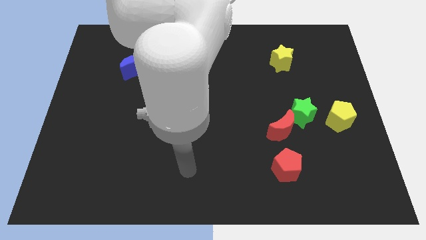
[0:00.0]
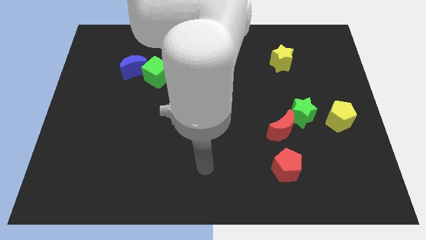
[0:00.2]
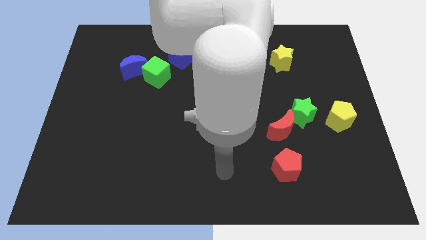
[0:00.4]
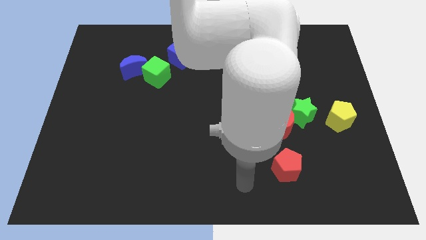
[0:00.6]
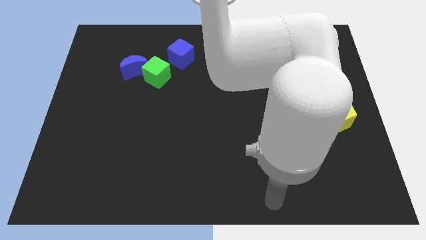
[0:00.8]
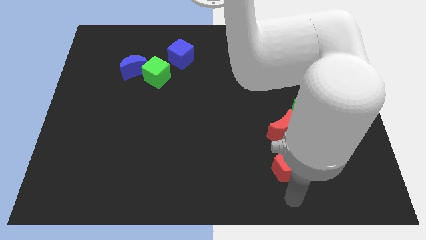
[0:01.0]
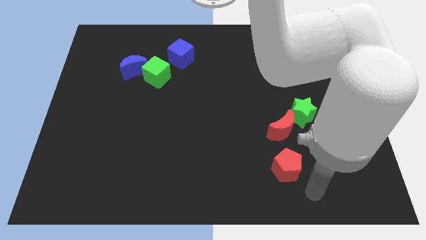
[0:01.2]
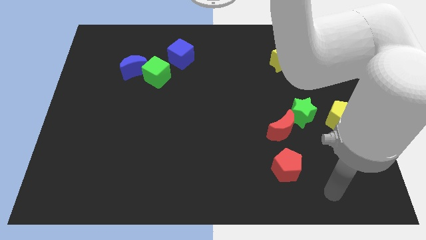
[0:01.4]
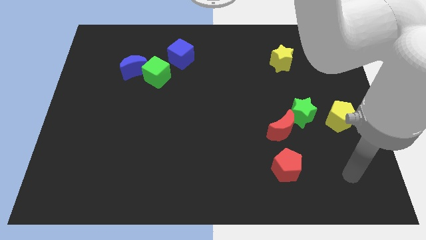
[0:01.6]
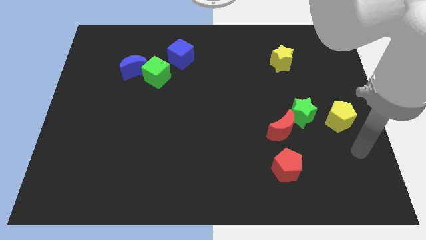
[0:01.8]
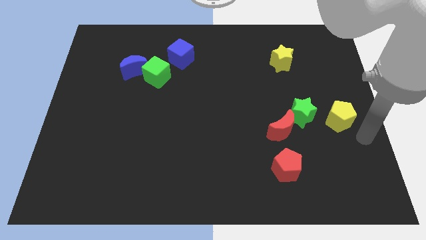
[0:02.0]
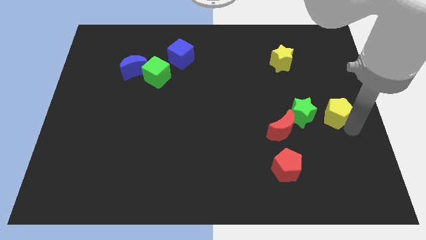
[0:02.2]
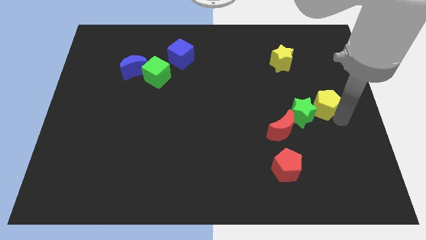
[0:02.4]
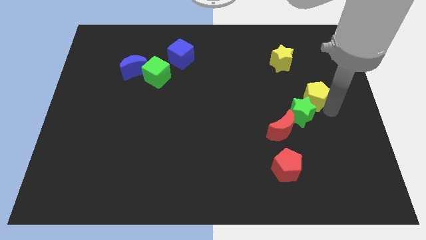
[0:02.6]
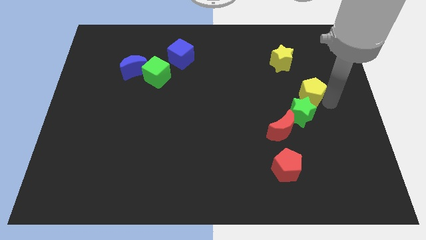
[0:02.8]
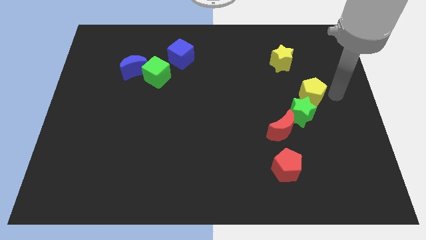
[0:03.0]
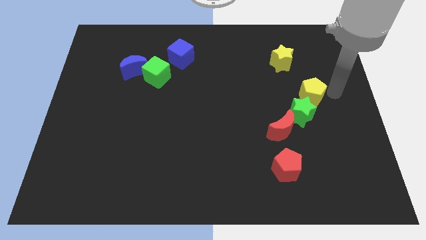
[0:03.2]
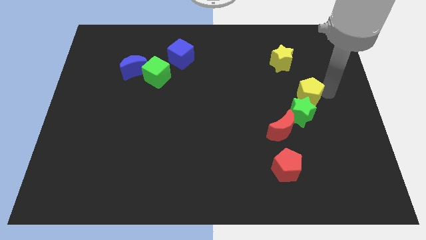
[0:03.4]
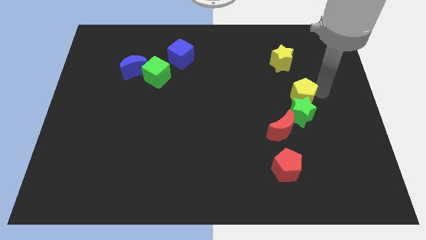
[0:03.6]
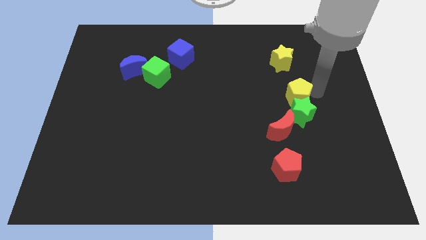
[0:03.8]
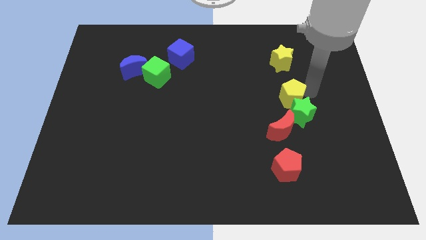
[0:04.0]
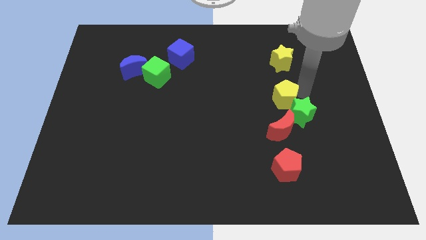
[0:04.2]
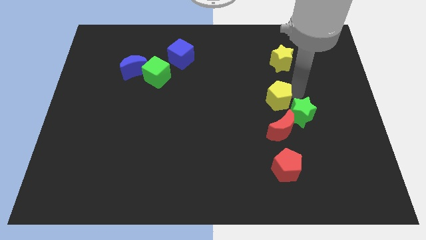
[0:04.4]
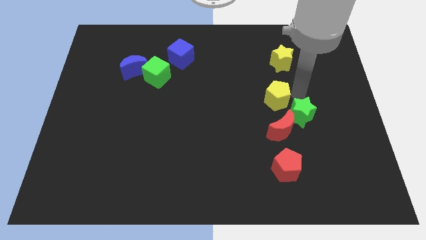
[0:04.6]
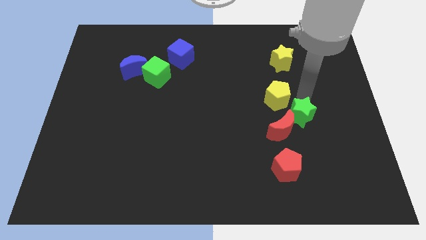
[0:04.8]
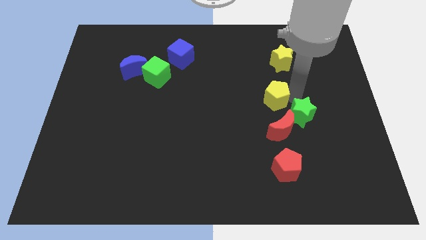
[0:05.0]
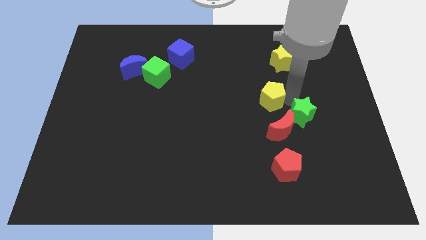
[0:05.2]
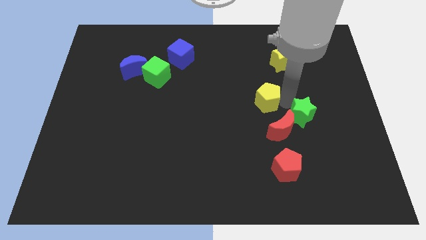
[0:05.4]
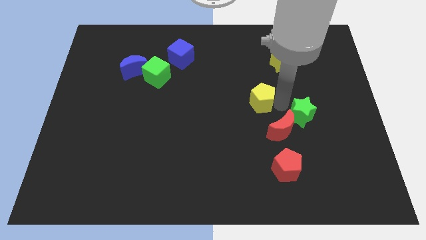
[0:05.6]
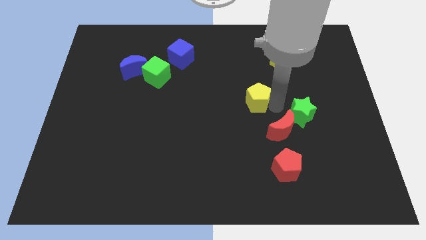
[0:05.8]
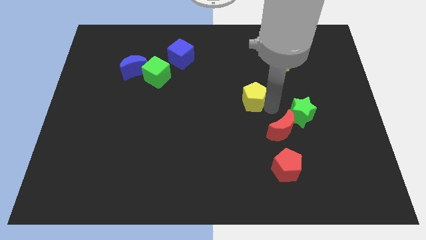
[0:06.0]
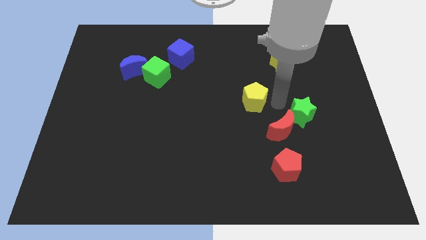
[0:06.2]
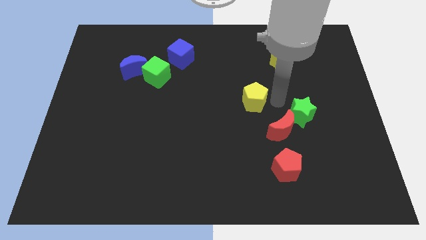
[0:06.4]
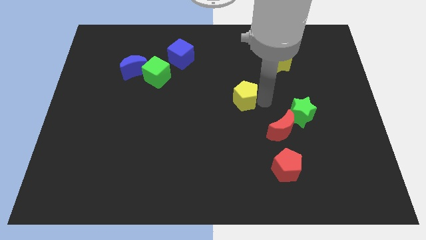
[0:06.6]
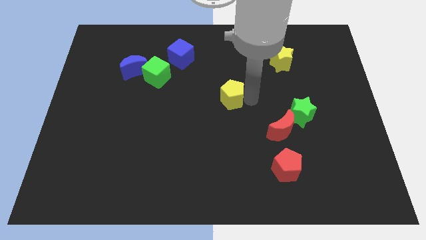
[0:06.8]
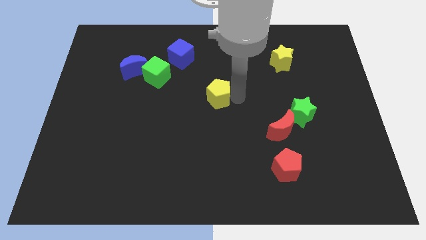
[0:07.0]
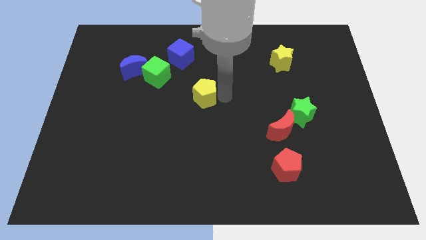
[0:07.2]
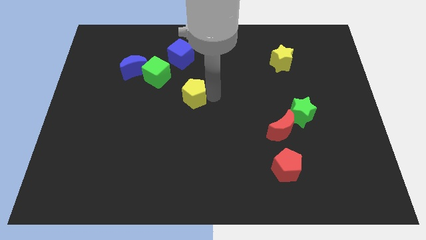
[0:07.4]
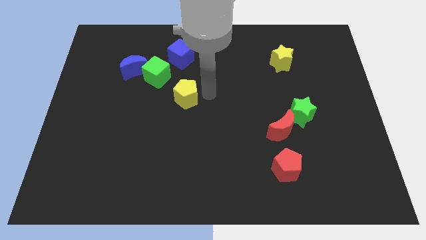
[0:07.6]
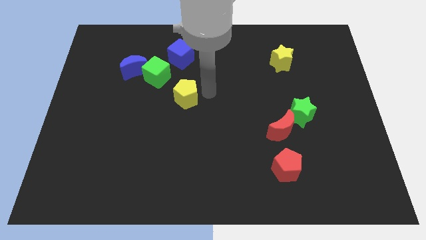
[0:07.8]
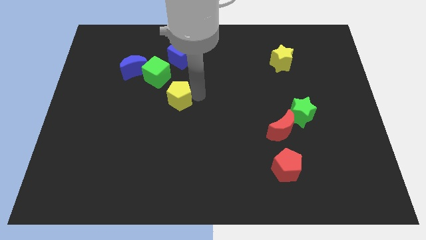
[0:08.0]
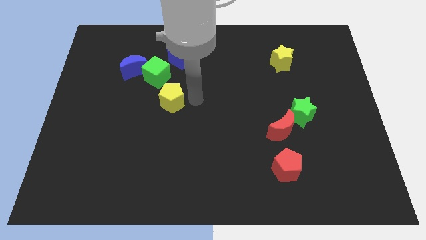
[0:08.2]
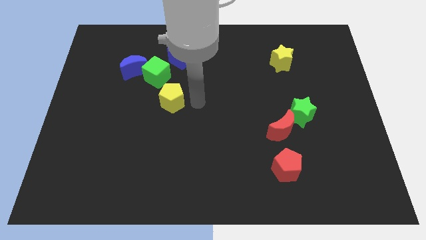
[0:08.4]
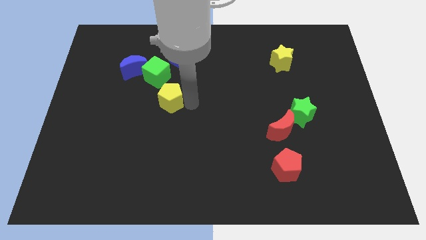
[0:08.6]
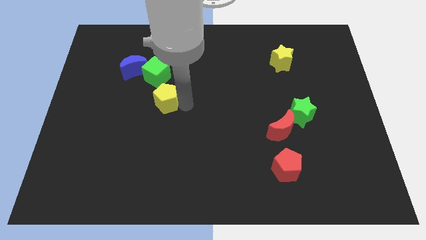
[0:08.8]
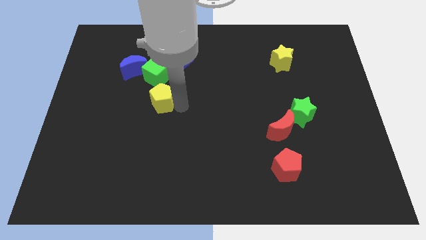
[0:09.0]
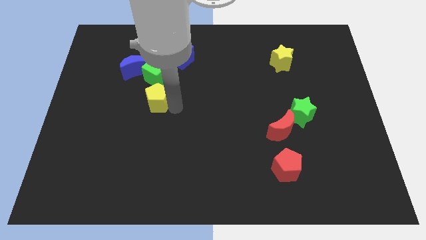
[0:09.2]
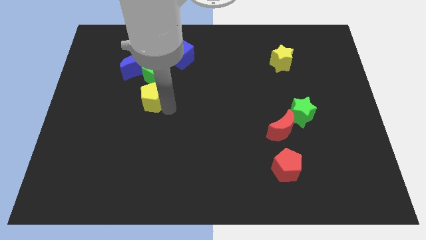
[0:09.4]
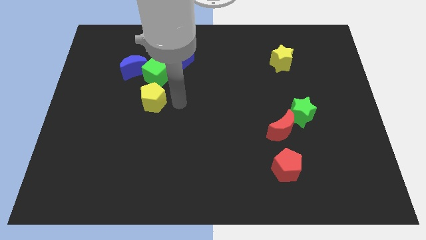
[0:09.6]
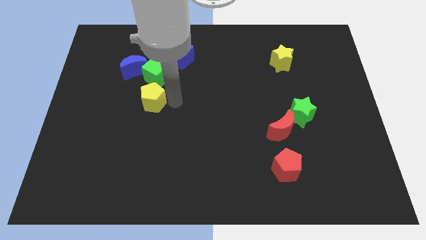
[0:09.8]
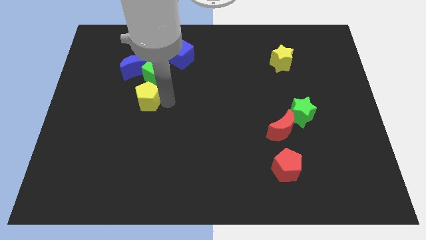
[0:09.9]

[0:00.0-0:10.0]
move the yellow pentagon to the bottom of the blue moon

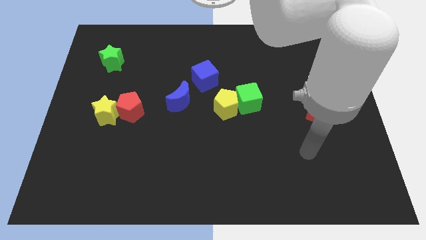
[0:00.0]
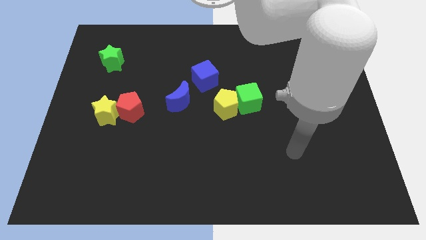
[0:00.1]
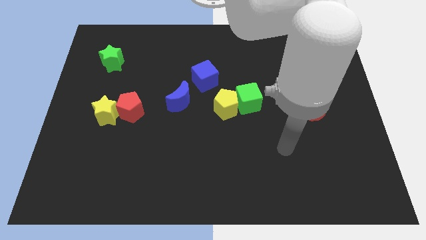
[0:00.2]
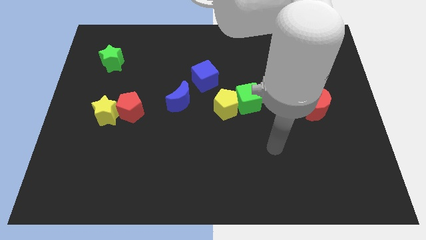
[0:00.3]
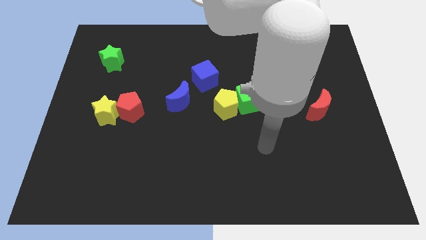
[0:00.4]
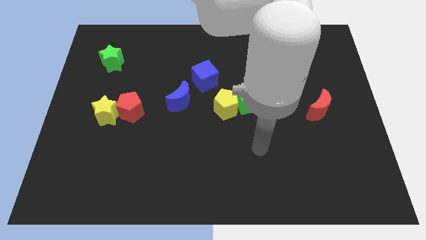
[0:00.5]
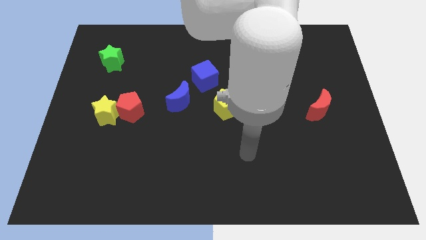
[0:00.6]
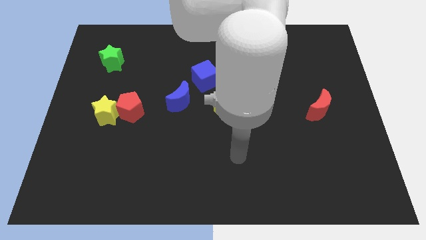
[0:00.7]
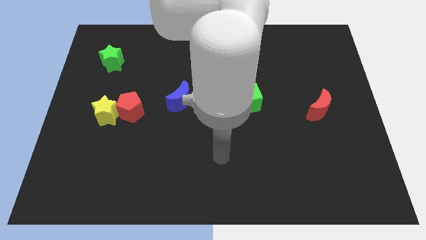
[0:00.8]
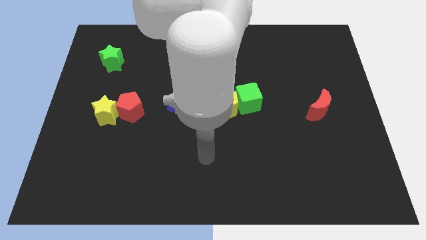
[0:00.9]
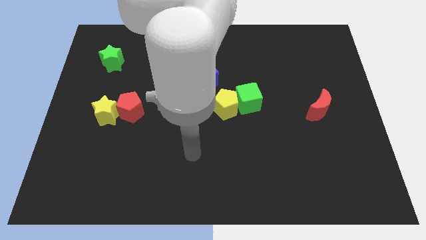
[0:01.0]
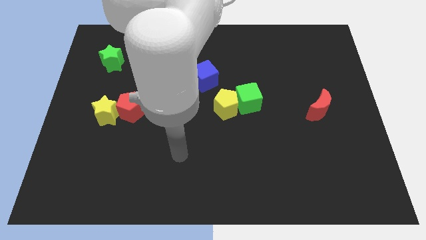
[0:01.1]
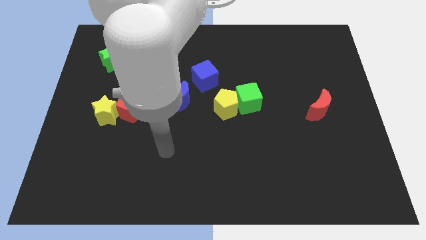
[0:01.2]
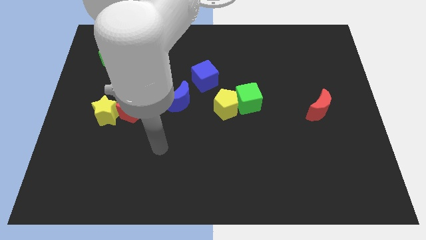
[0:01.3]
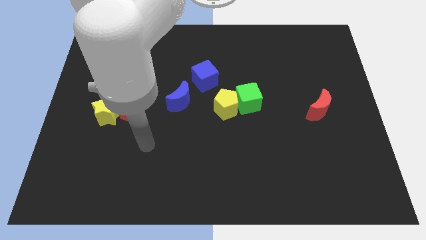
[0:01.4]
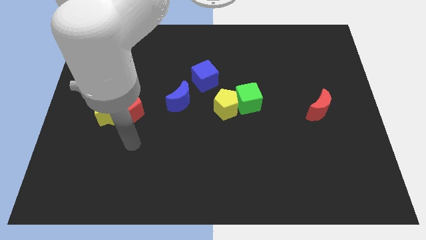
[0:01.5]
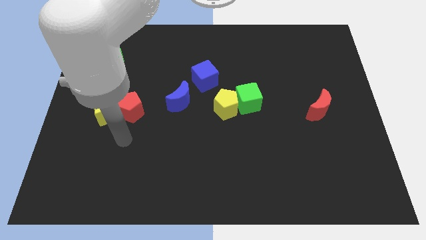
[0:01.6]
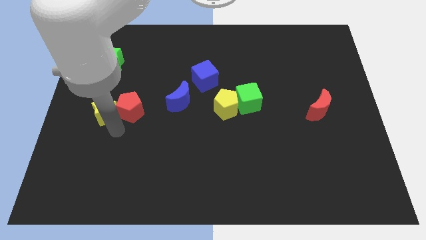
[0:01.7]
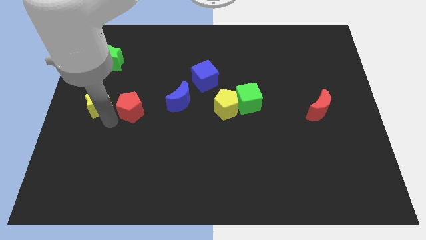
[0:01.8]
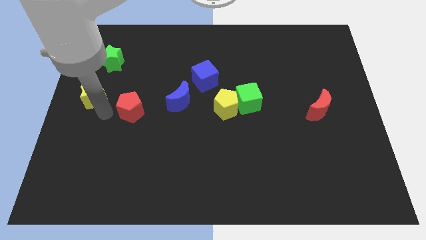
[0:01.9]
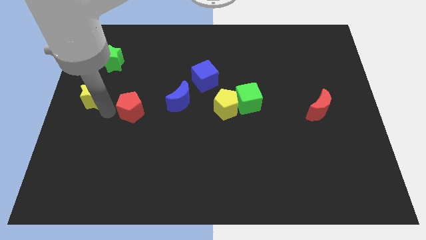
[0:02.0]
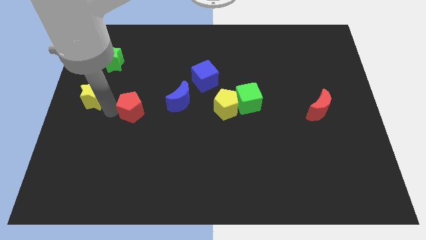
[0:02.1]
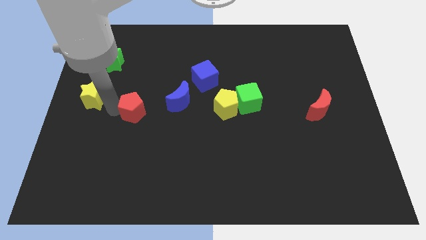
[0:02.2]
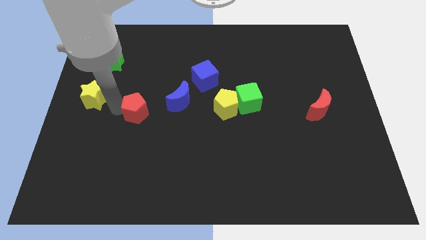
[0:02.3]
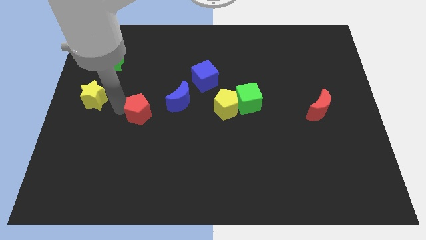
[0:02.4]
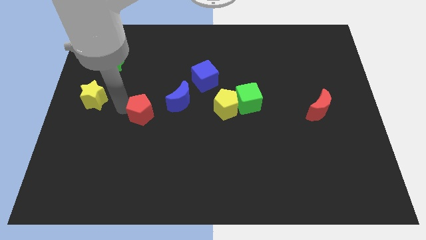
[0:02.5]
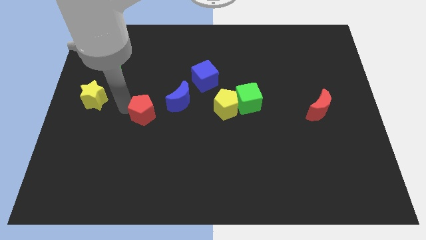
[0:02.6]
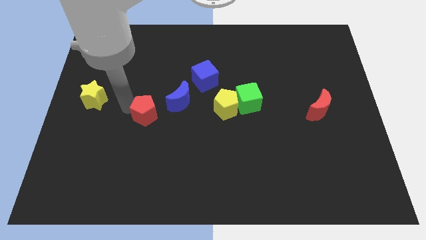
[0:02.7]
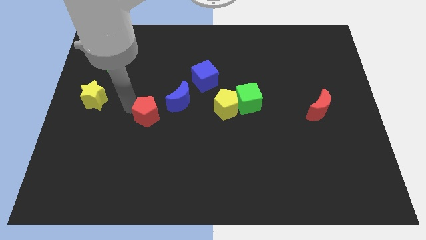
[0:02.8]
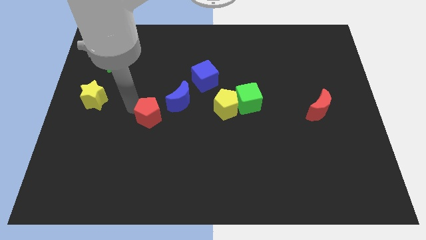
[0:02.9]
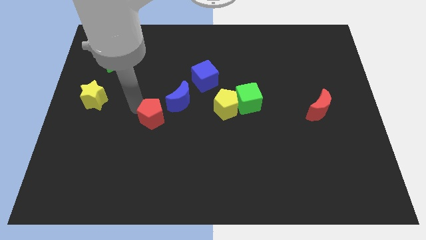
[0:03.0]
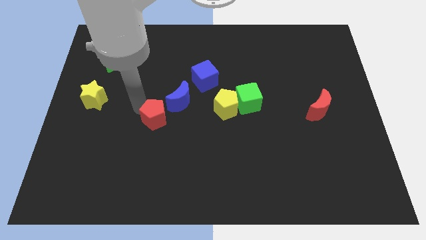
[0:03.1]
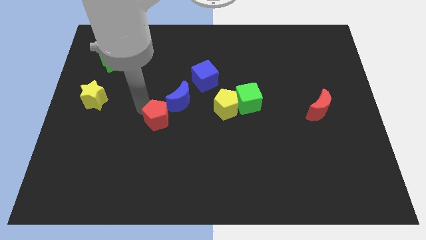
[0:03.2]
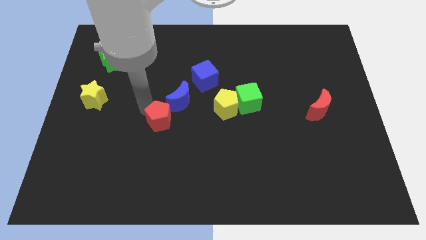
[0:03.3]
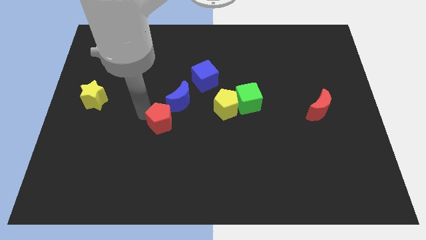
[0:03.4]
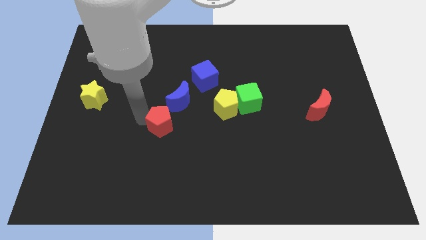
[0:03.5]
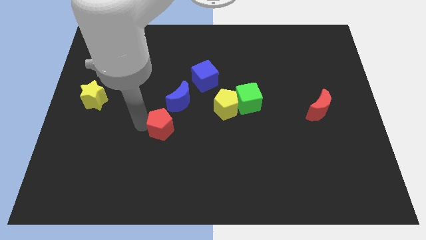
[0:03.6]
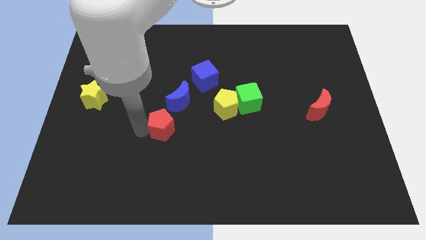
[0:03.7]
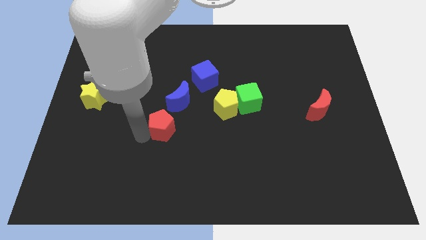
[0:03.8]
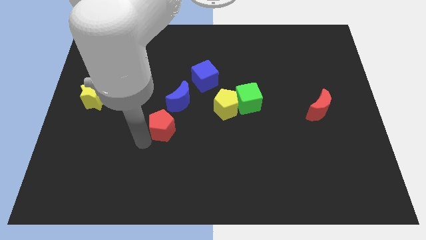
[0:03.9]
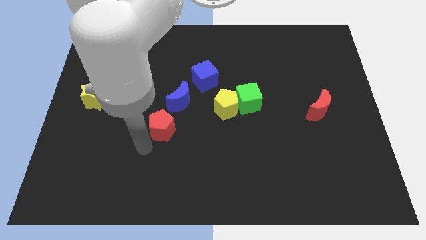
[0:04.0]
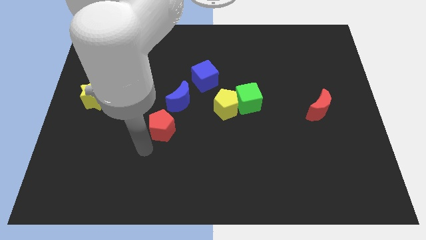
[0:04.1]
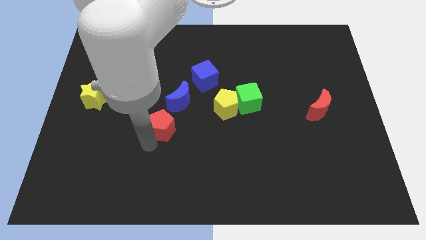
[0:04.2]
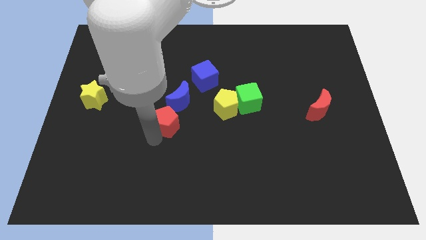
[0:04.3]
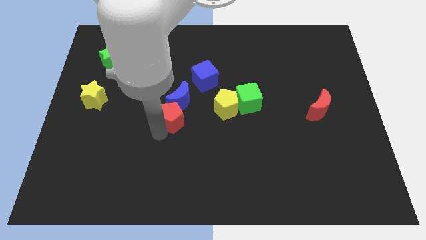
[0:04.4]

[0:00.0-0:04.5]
slide the red pentagon left of the yellow pentagon
